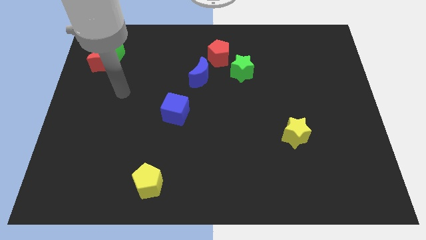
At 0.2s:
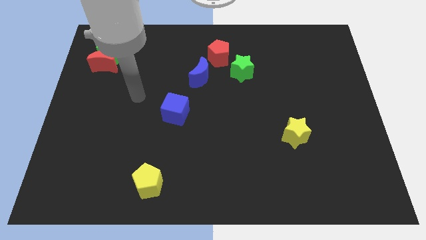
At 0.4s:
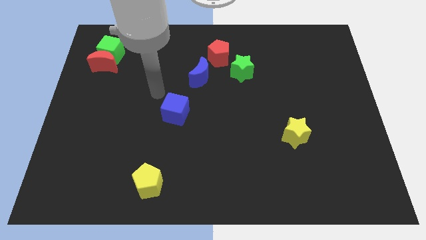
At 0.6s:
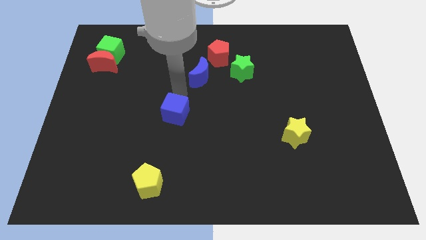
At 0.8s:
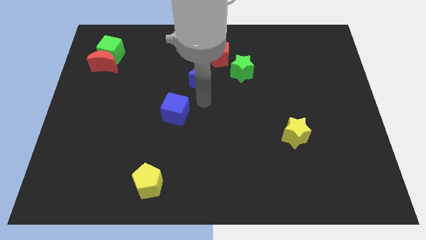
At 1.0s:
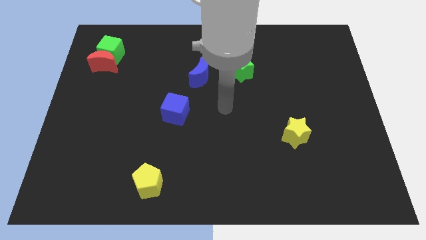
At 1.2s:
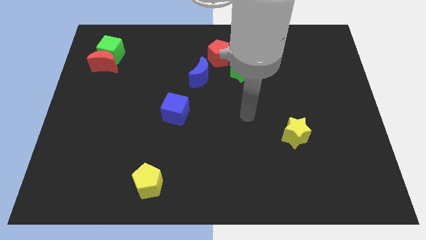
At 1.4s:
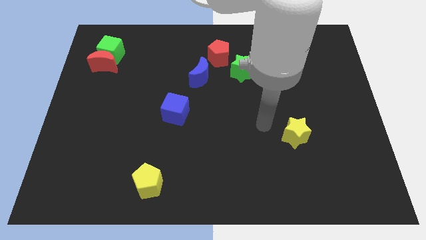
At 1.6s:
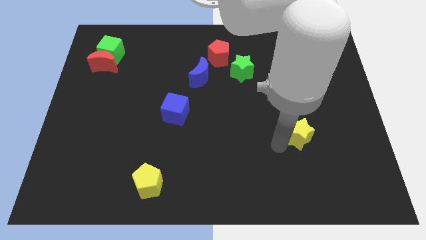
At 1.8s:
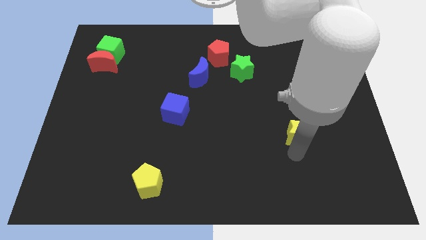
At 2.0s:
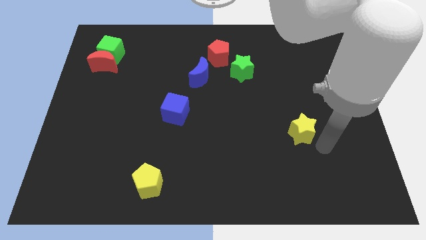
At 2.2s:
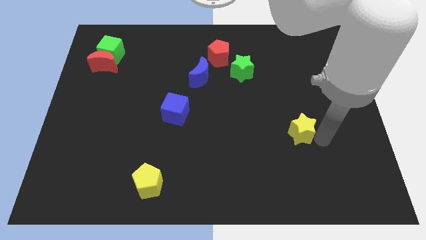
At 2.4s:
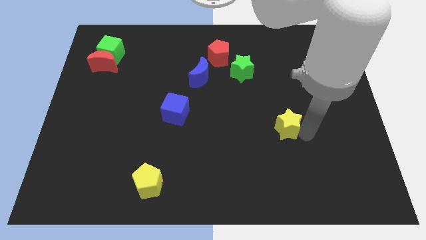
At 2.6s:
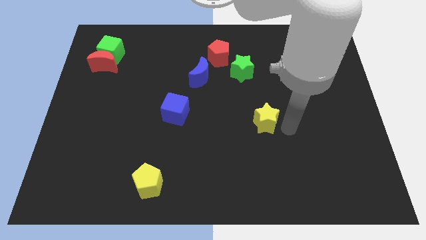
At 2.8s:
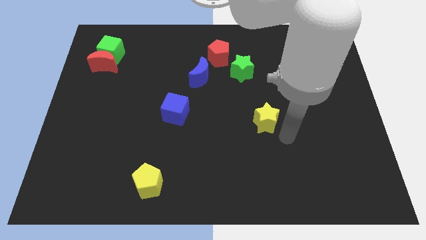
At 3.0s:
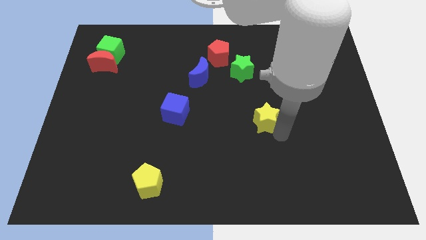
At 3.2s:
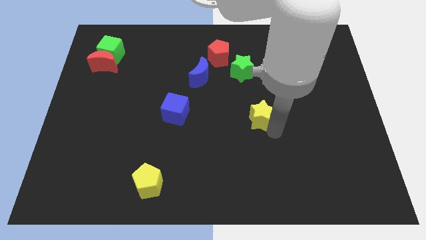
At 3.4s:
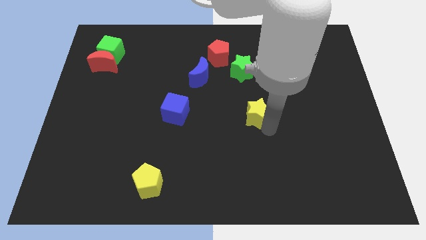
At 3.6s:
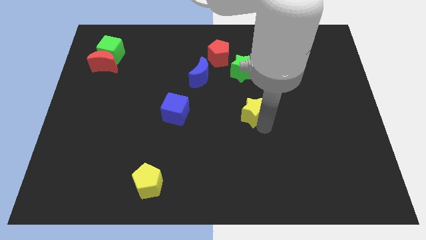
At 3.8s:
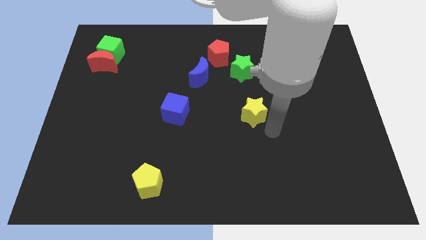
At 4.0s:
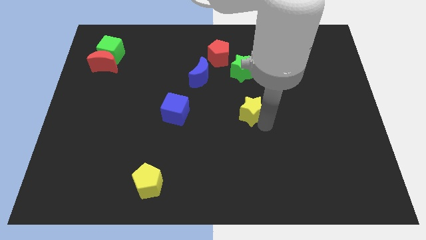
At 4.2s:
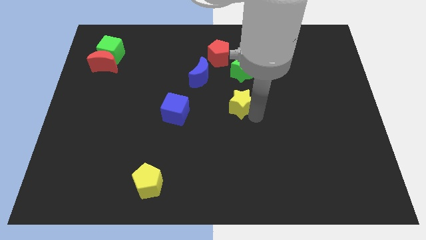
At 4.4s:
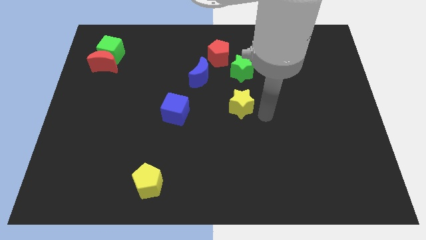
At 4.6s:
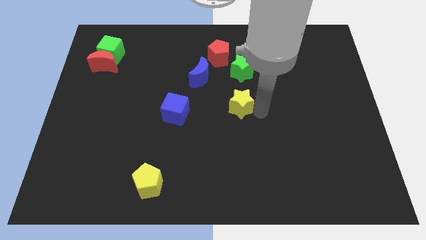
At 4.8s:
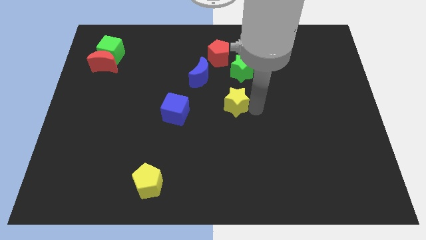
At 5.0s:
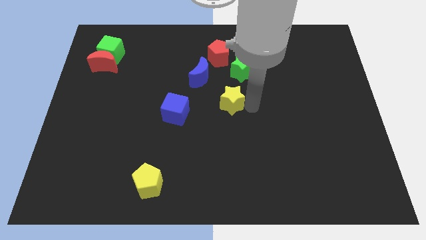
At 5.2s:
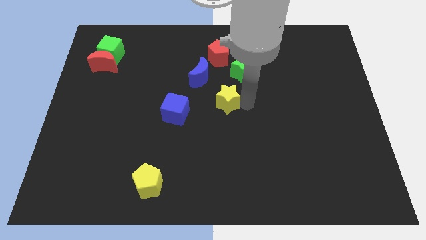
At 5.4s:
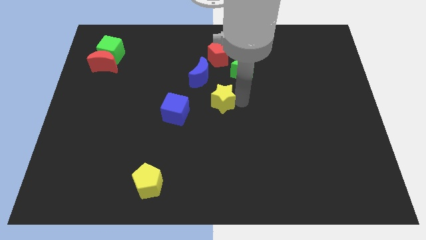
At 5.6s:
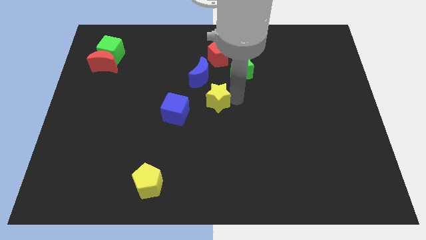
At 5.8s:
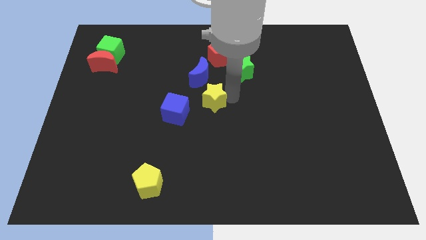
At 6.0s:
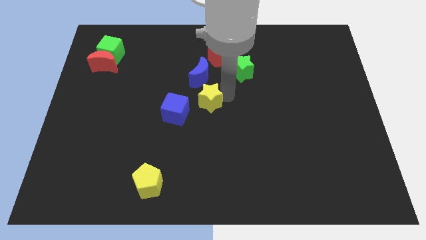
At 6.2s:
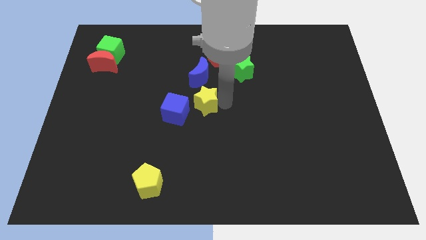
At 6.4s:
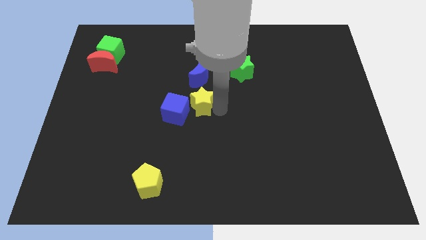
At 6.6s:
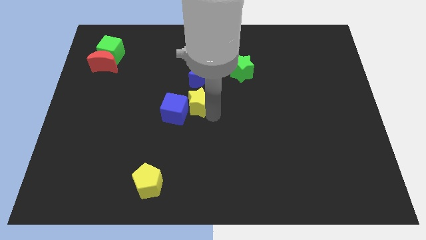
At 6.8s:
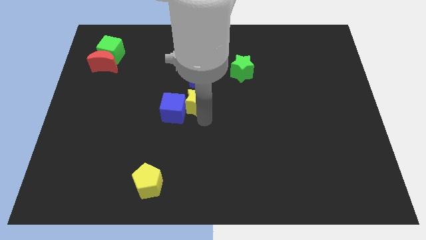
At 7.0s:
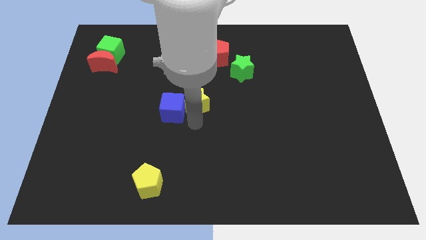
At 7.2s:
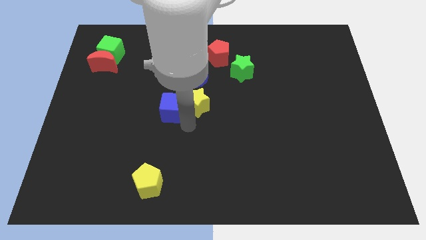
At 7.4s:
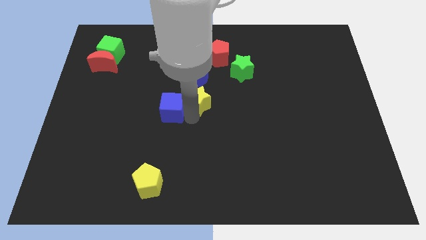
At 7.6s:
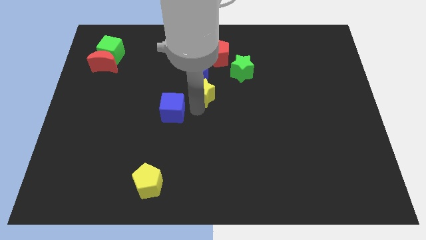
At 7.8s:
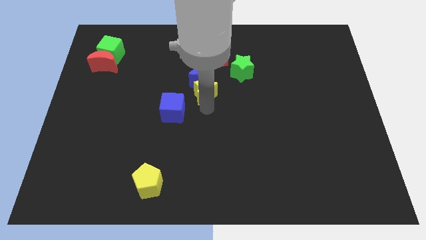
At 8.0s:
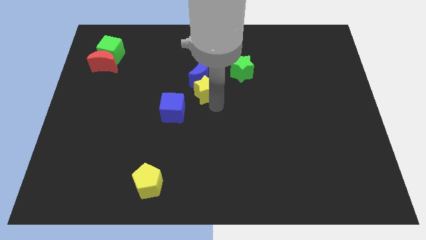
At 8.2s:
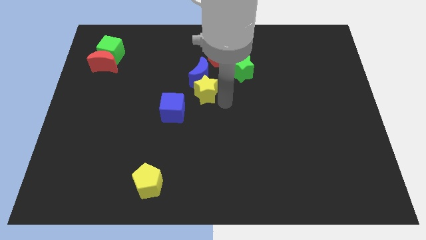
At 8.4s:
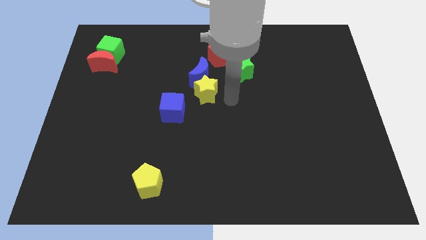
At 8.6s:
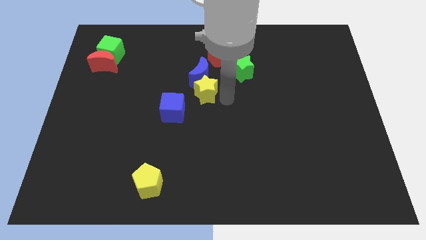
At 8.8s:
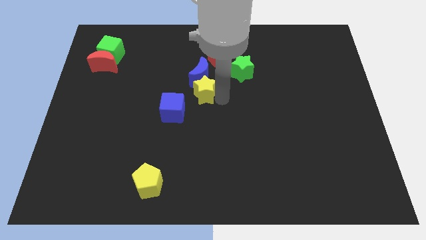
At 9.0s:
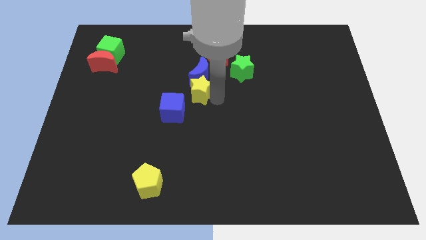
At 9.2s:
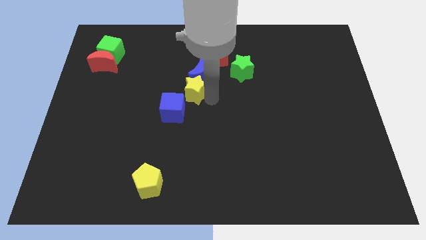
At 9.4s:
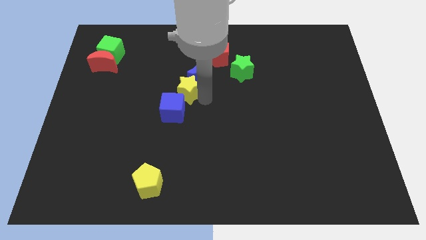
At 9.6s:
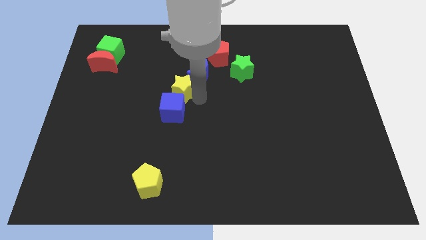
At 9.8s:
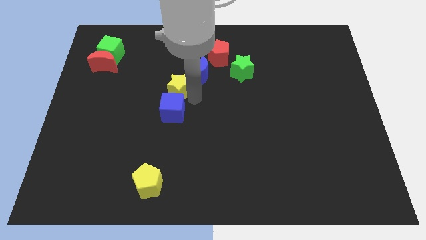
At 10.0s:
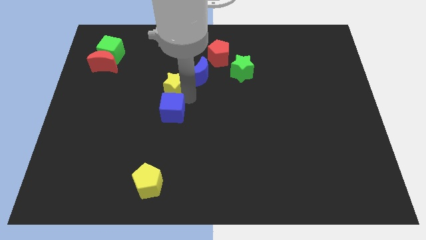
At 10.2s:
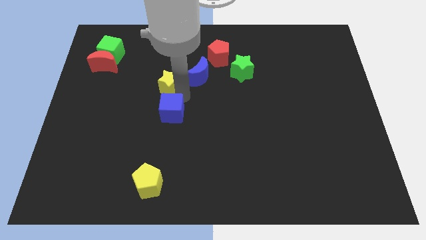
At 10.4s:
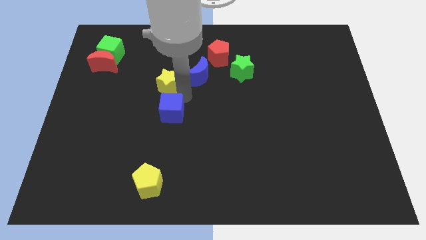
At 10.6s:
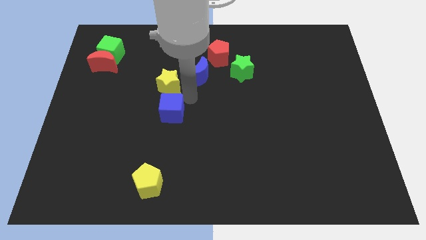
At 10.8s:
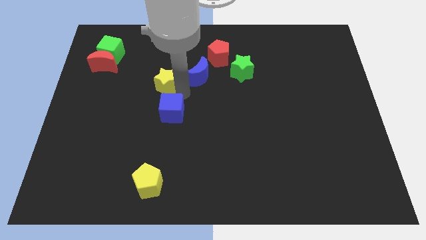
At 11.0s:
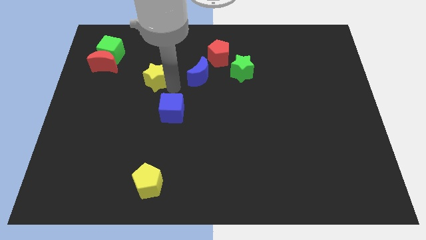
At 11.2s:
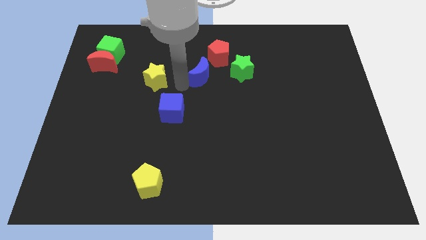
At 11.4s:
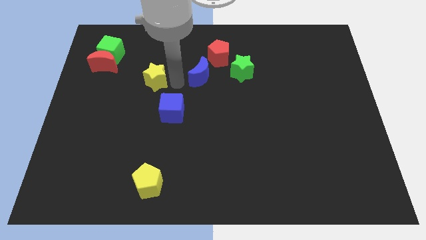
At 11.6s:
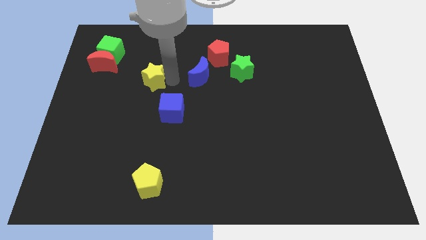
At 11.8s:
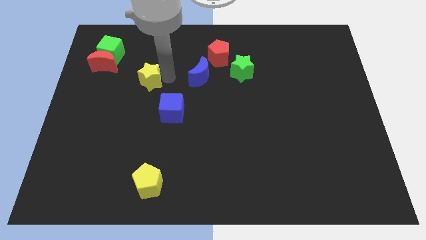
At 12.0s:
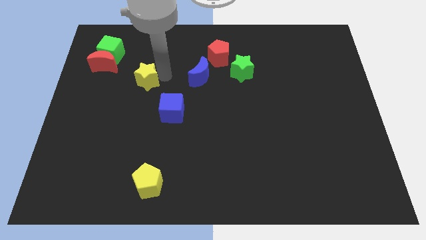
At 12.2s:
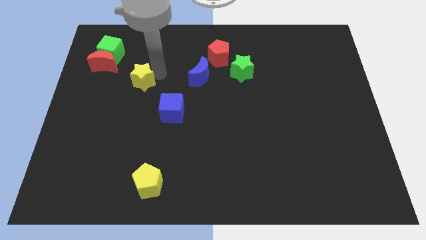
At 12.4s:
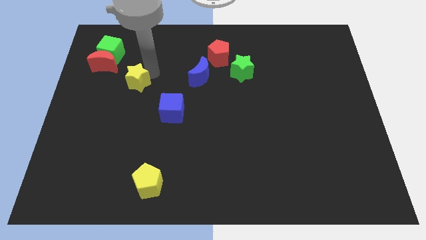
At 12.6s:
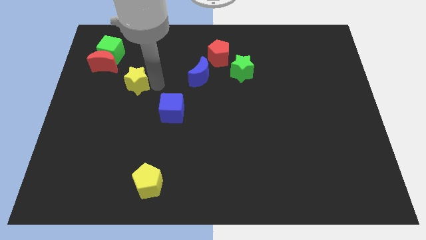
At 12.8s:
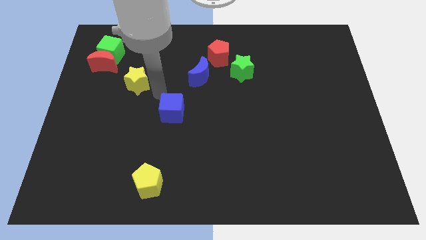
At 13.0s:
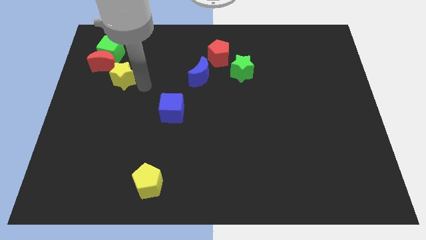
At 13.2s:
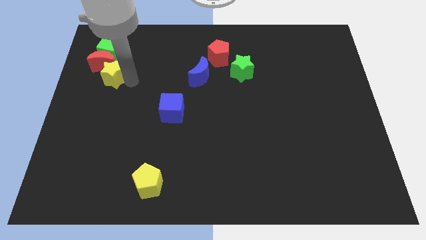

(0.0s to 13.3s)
move the yellow star to the red moon
